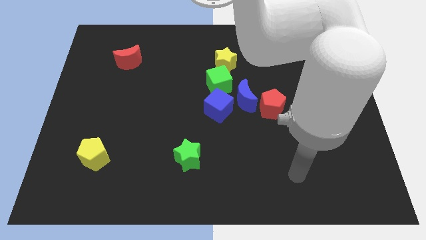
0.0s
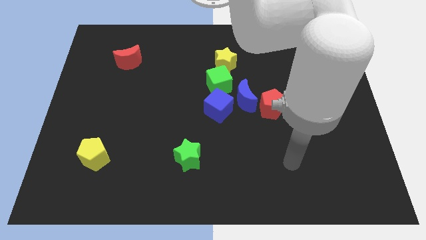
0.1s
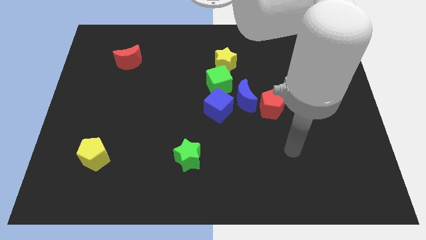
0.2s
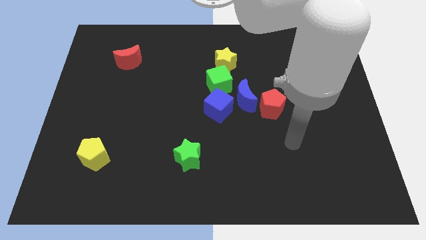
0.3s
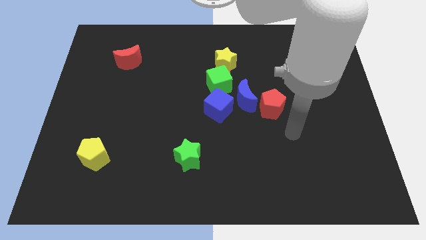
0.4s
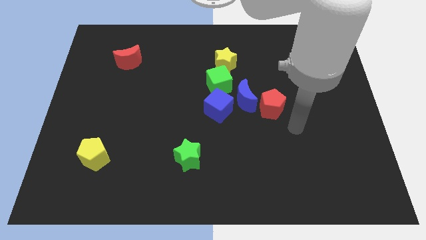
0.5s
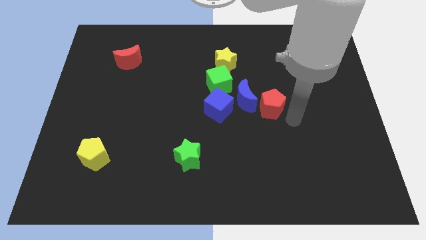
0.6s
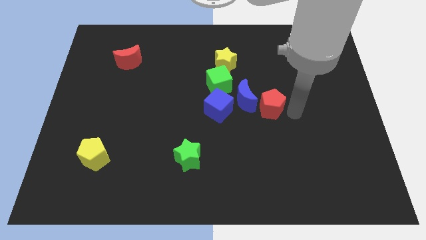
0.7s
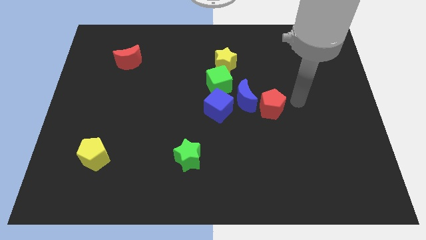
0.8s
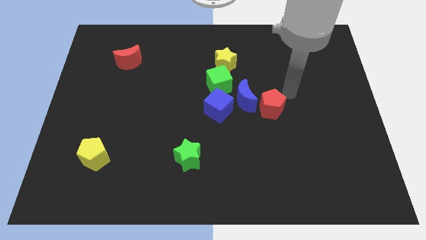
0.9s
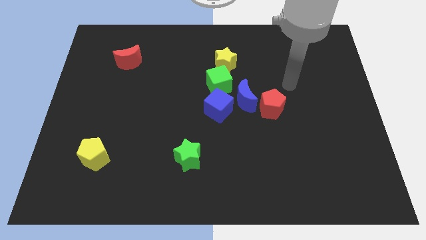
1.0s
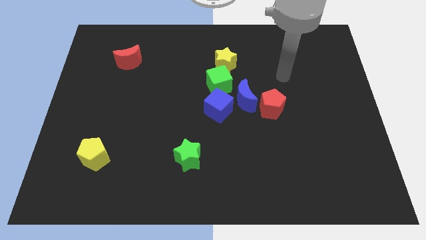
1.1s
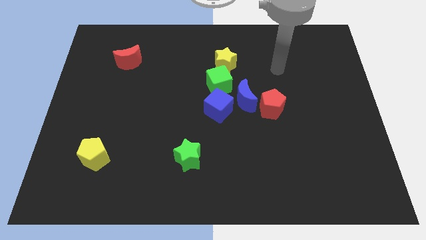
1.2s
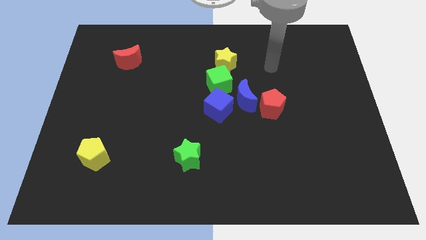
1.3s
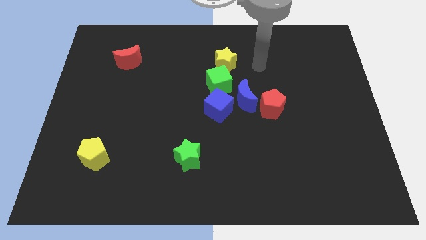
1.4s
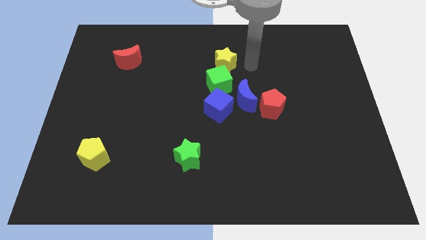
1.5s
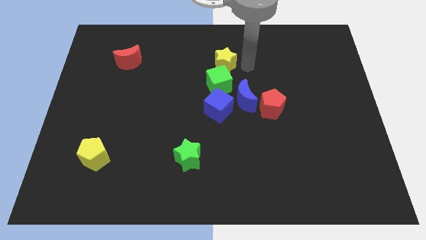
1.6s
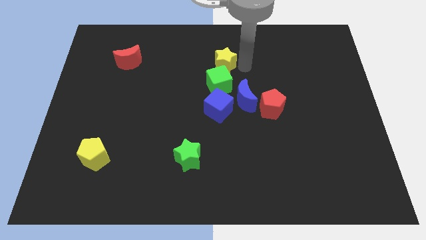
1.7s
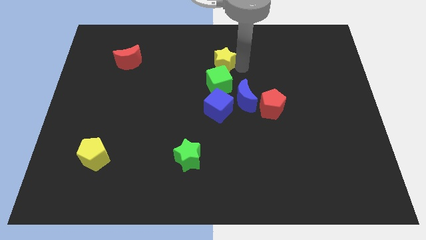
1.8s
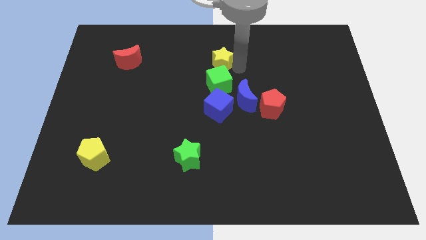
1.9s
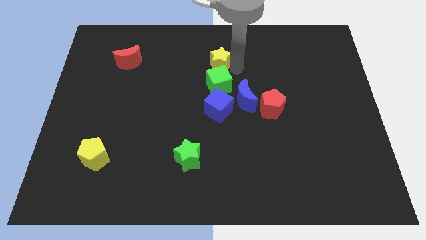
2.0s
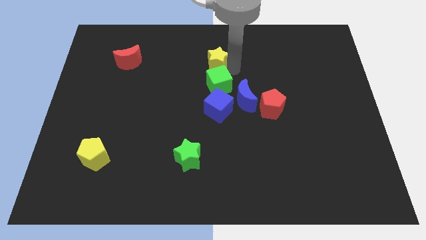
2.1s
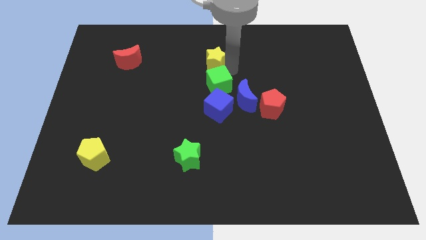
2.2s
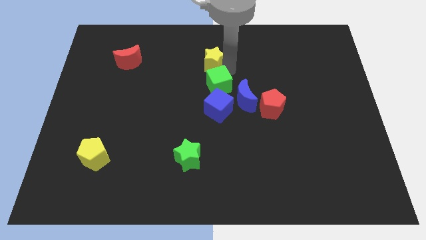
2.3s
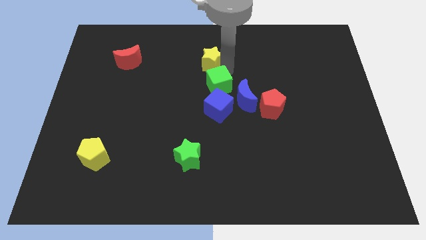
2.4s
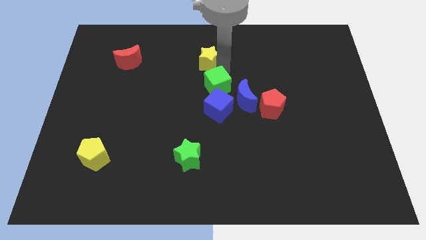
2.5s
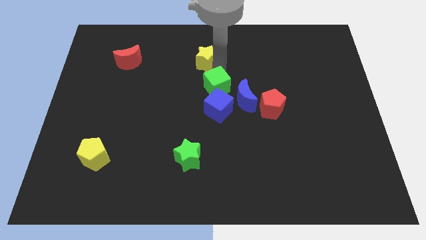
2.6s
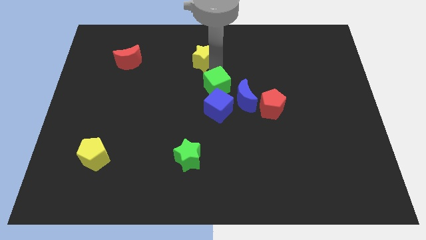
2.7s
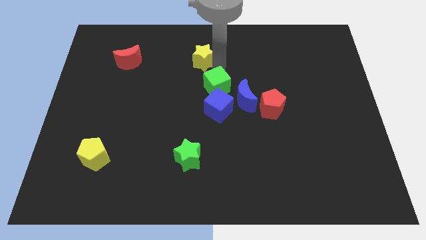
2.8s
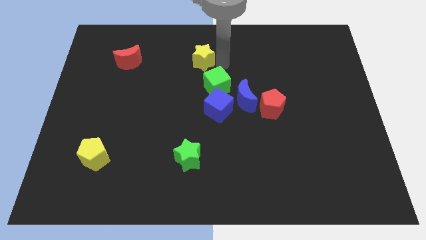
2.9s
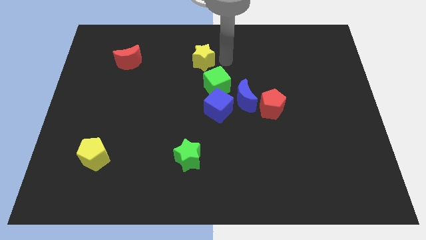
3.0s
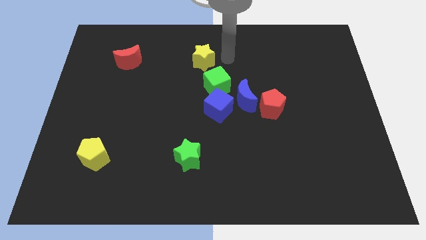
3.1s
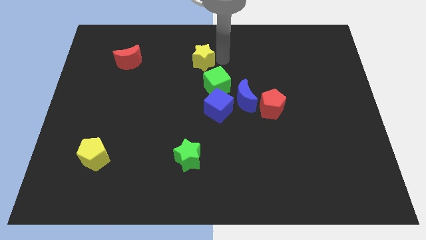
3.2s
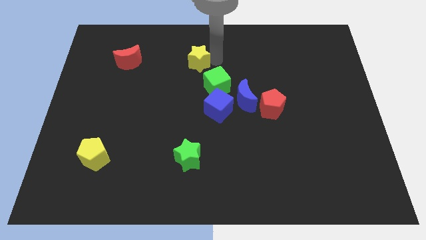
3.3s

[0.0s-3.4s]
slightly move the yellow star to the left

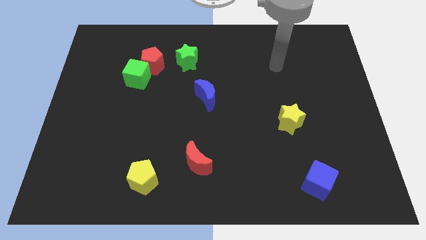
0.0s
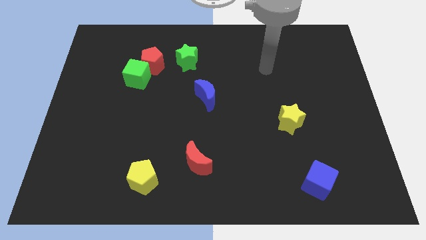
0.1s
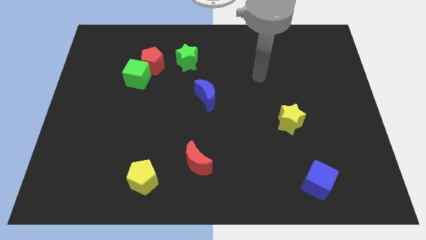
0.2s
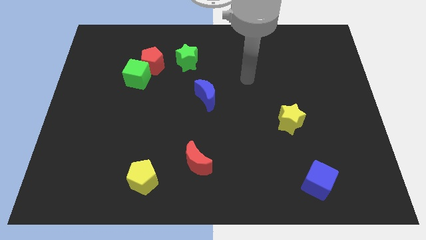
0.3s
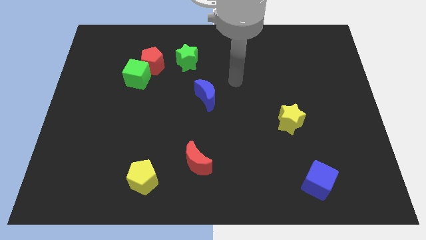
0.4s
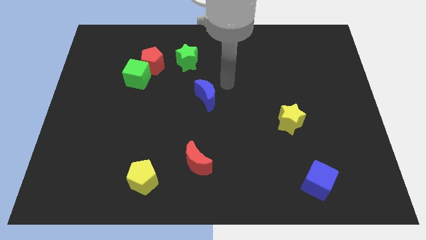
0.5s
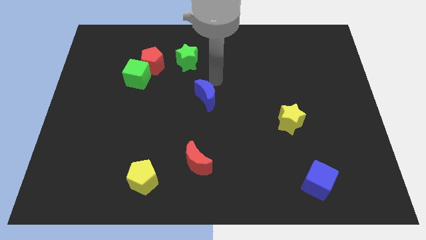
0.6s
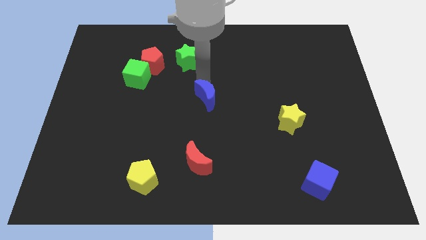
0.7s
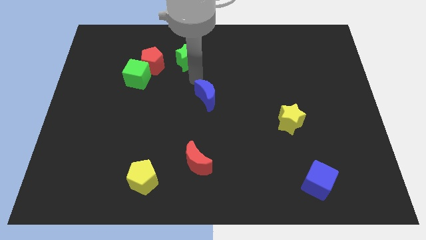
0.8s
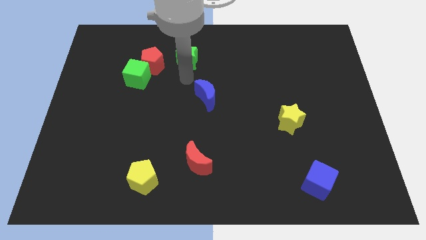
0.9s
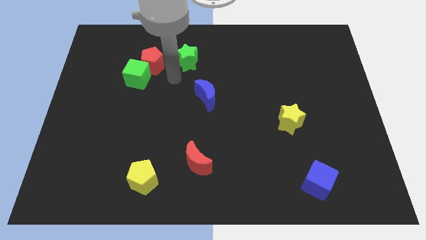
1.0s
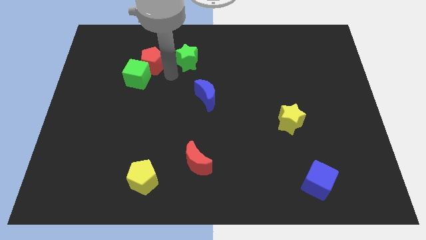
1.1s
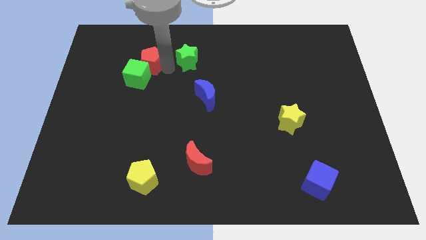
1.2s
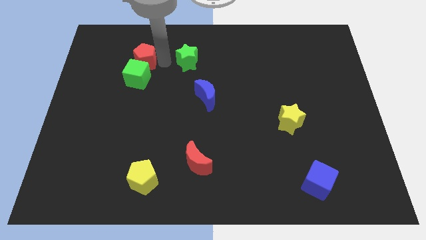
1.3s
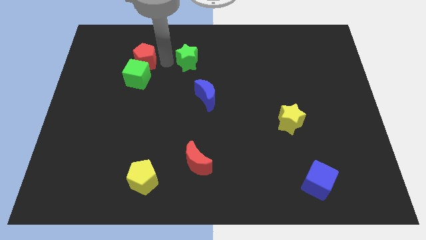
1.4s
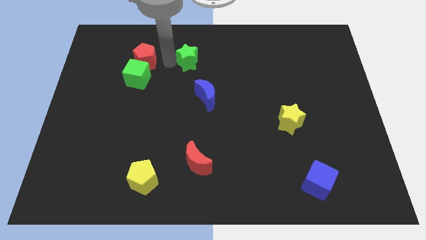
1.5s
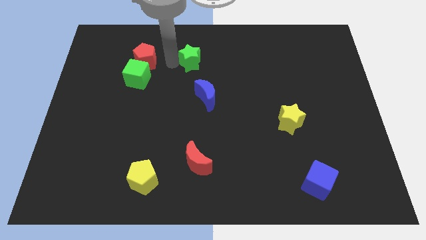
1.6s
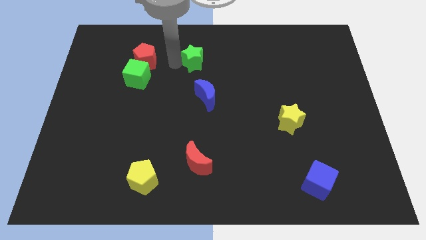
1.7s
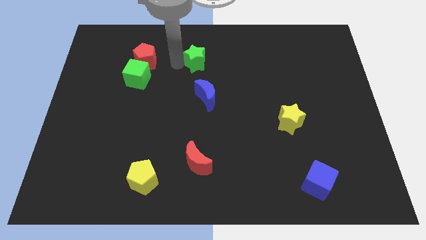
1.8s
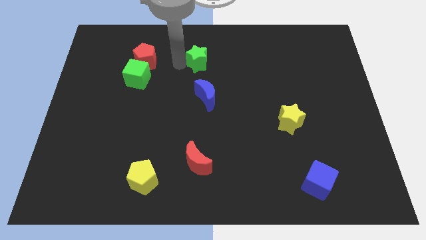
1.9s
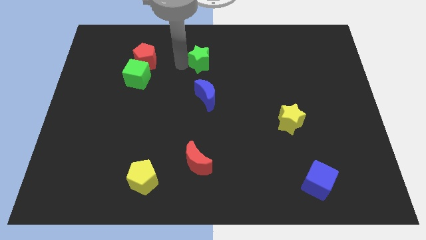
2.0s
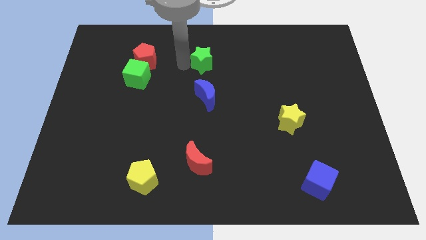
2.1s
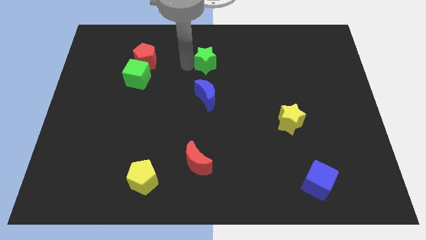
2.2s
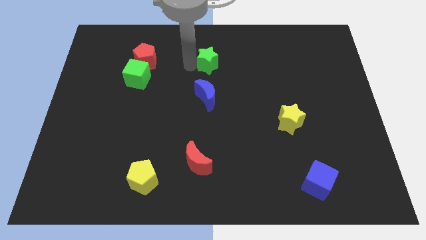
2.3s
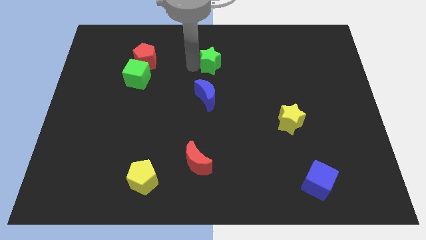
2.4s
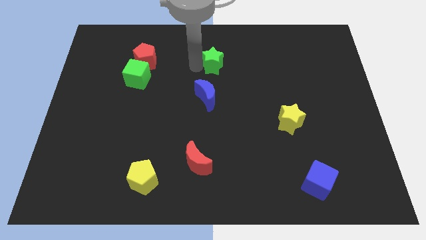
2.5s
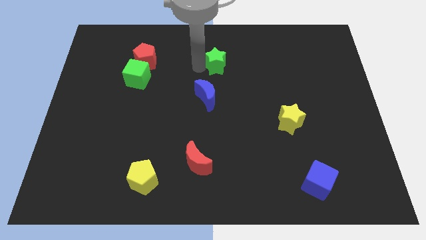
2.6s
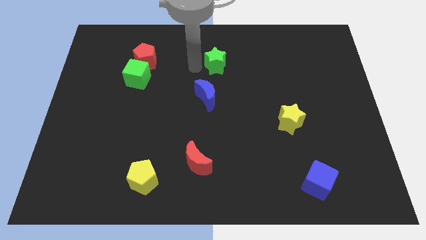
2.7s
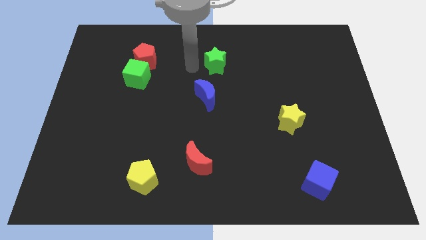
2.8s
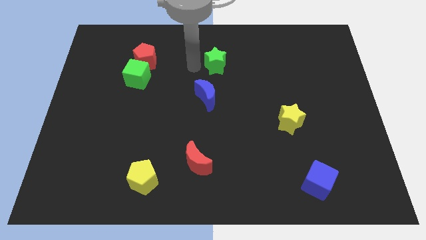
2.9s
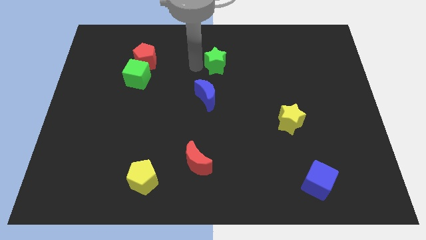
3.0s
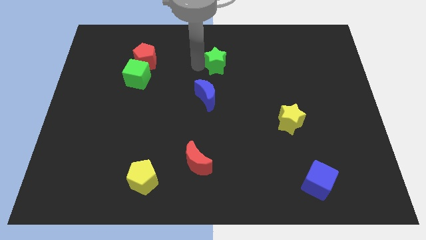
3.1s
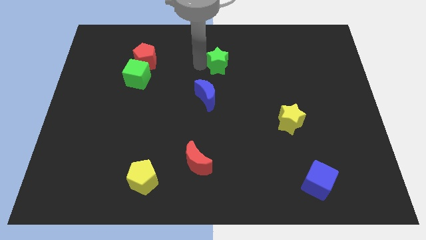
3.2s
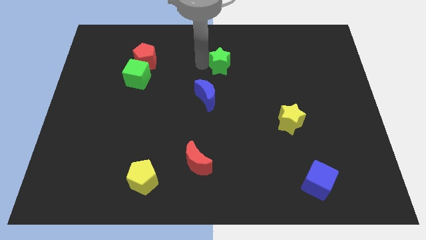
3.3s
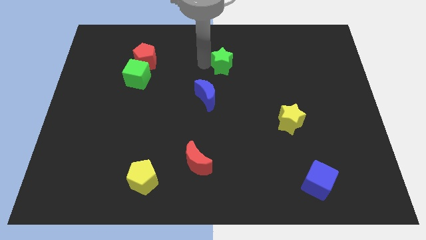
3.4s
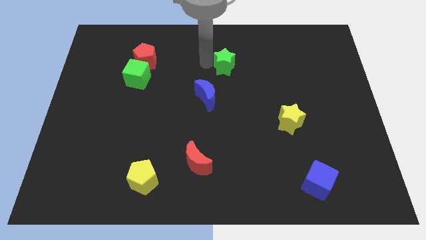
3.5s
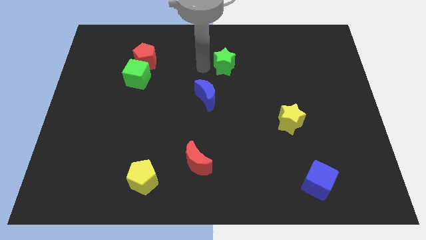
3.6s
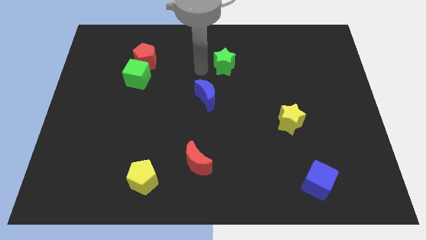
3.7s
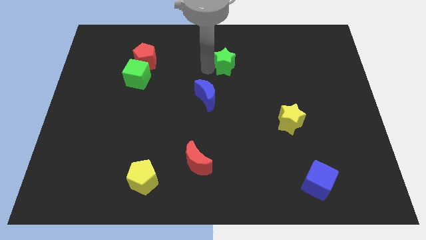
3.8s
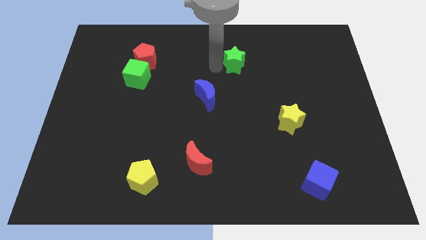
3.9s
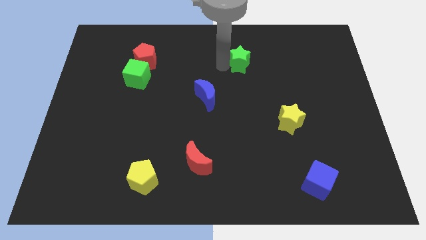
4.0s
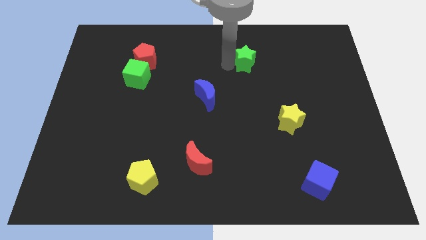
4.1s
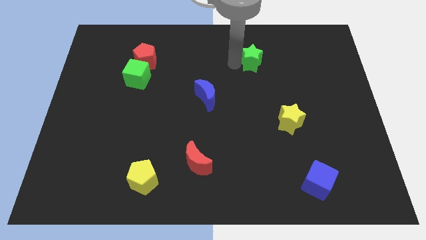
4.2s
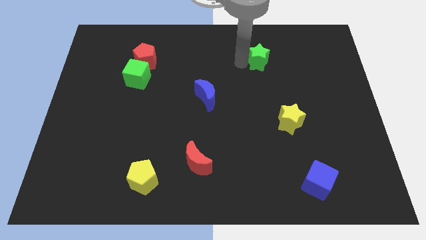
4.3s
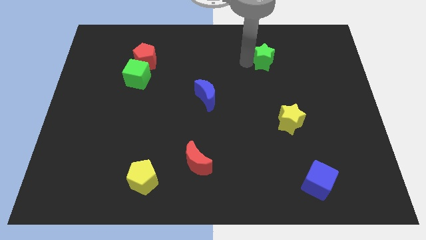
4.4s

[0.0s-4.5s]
move the green star right
